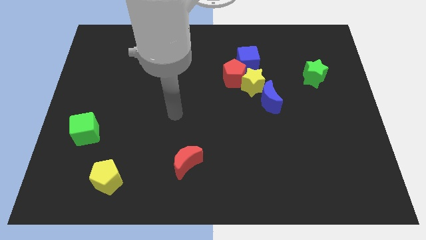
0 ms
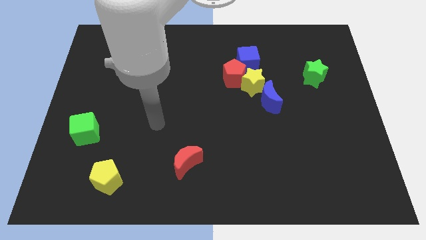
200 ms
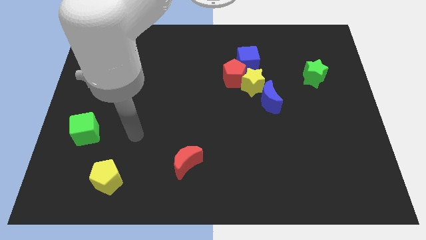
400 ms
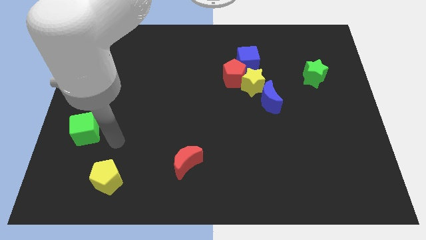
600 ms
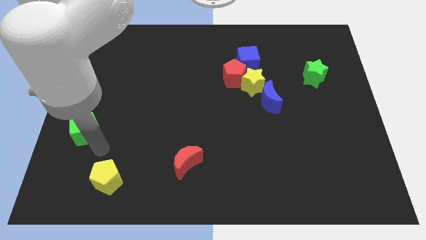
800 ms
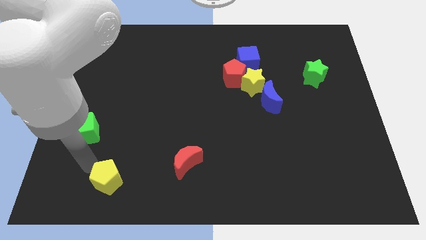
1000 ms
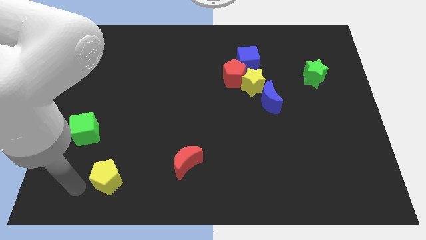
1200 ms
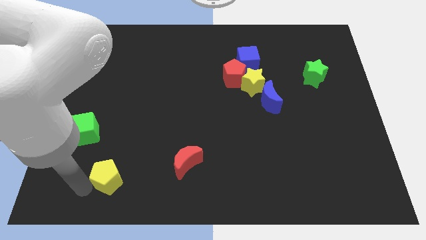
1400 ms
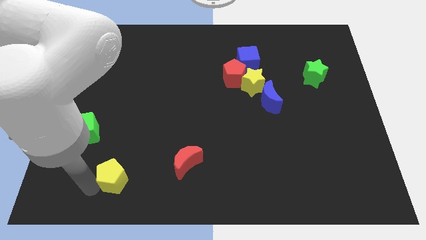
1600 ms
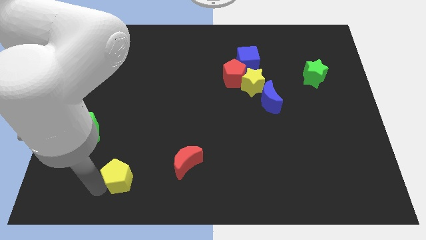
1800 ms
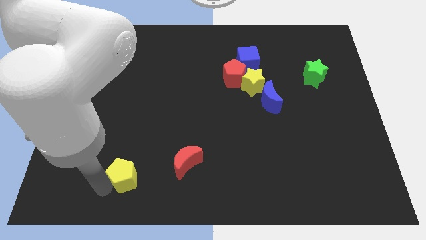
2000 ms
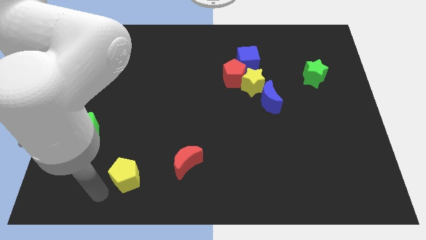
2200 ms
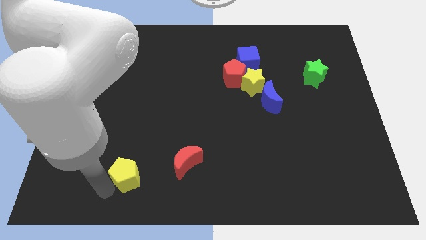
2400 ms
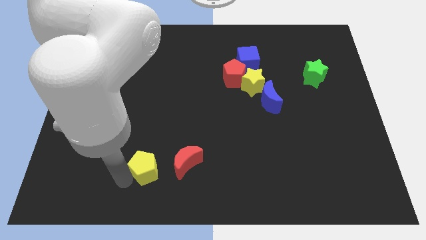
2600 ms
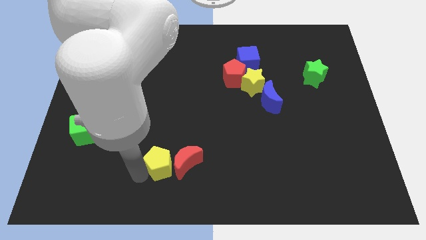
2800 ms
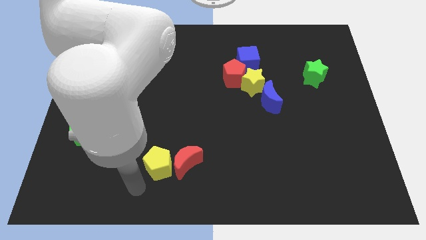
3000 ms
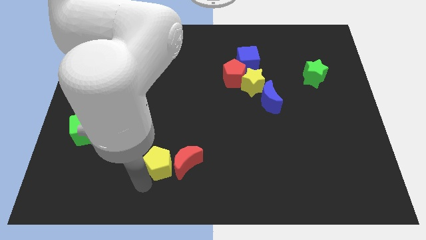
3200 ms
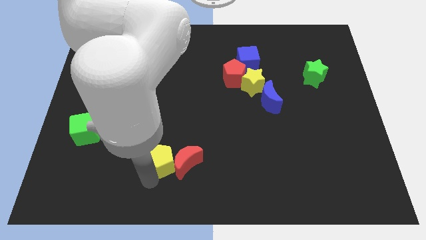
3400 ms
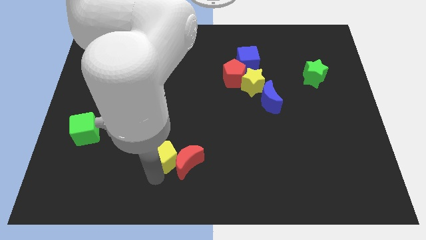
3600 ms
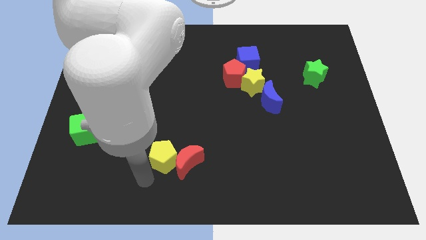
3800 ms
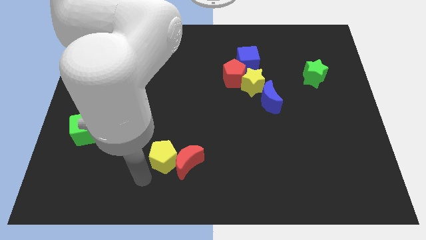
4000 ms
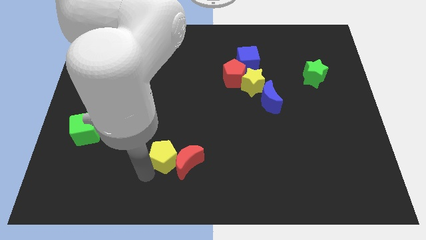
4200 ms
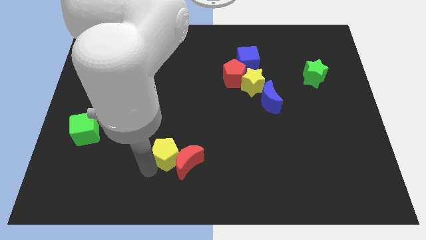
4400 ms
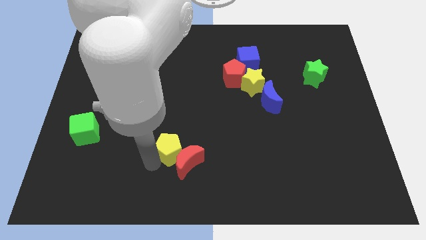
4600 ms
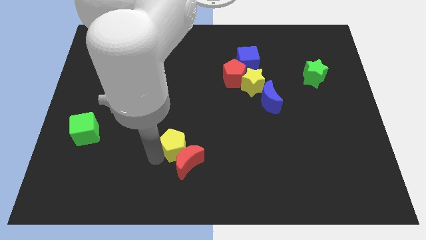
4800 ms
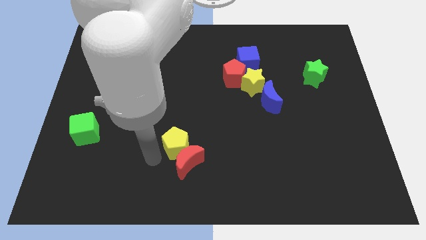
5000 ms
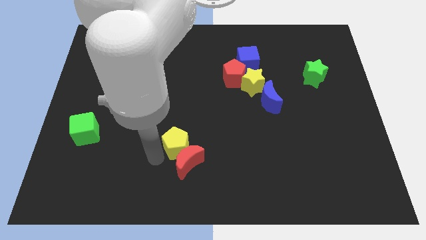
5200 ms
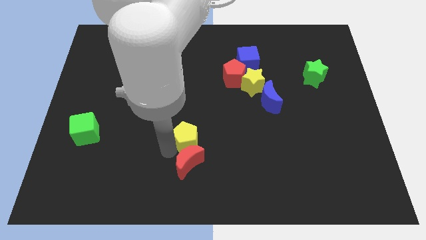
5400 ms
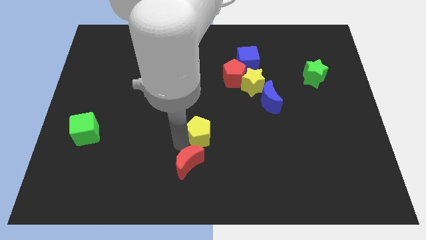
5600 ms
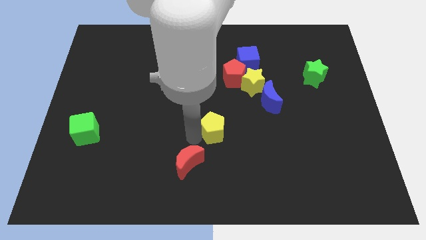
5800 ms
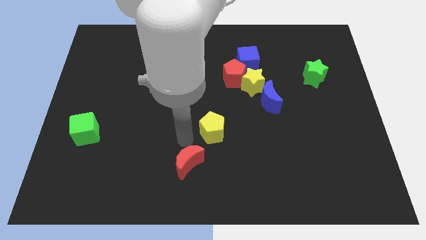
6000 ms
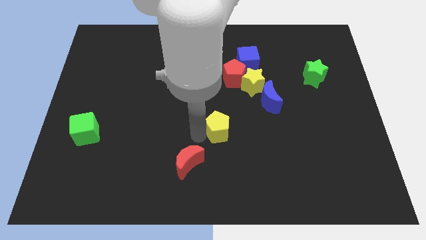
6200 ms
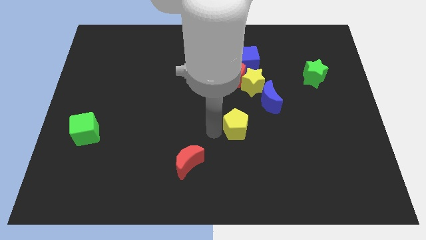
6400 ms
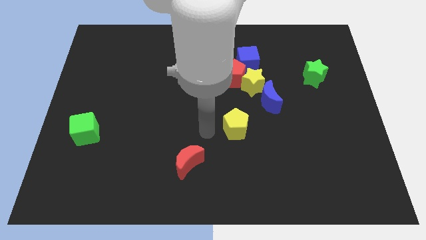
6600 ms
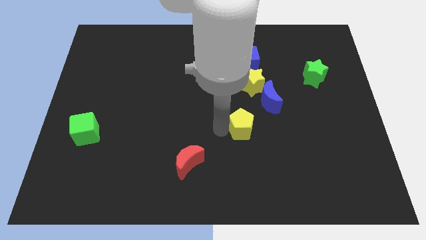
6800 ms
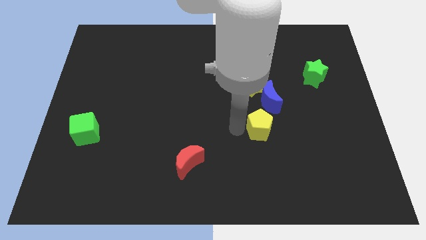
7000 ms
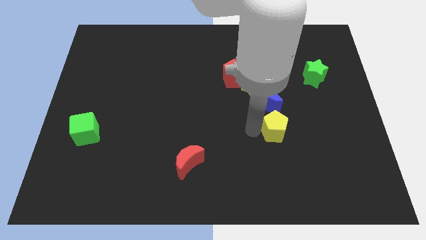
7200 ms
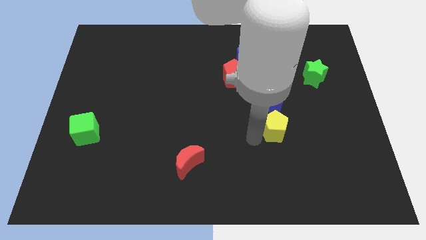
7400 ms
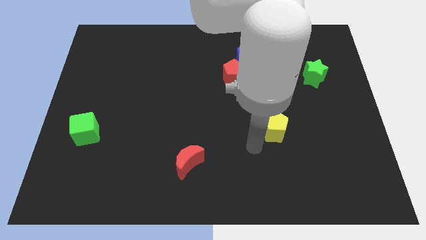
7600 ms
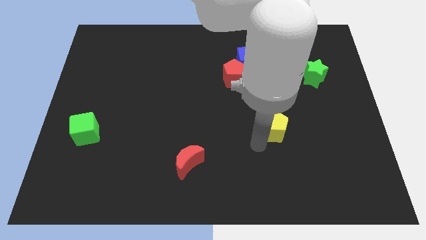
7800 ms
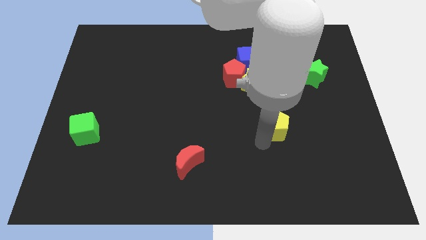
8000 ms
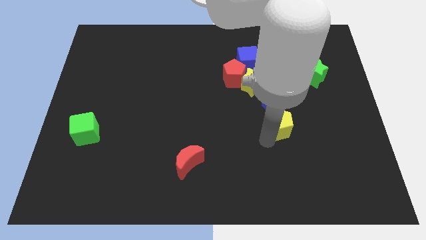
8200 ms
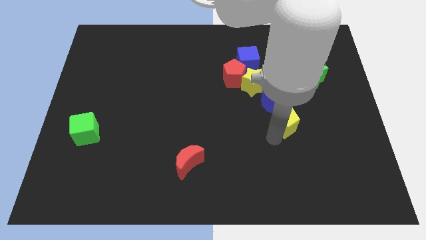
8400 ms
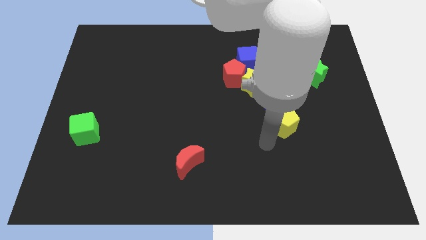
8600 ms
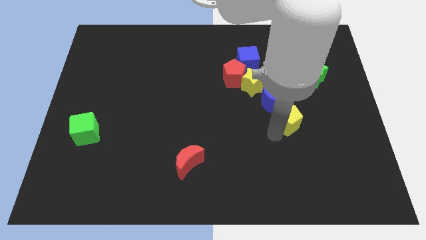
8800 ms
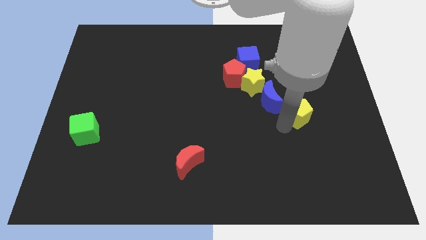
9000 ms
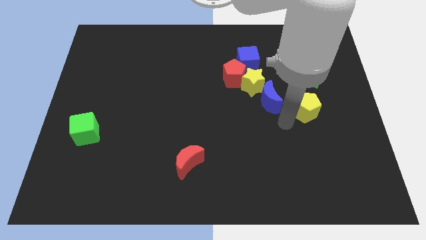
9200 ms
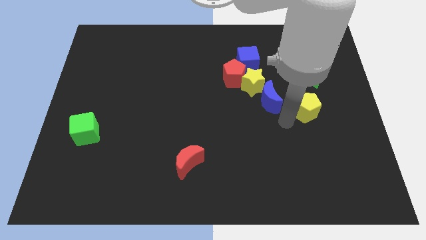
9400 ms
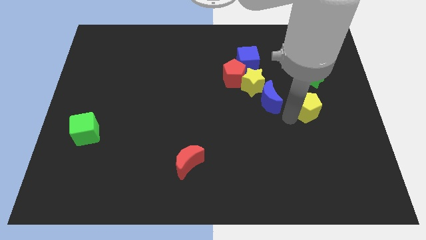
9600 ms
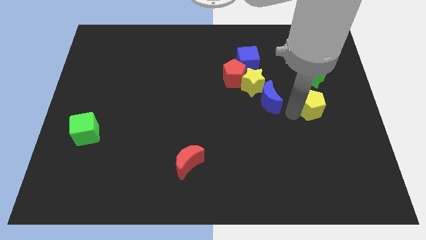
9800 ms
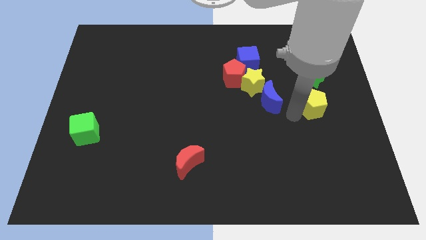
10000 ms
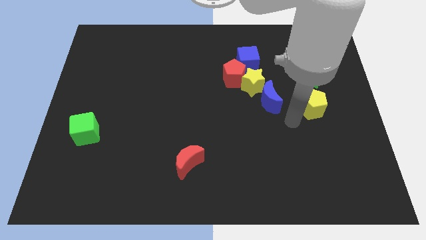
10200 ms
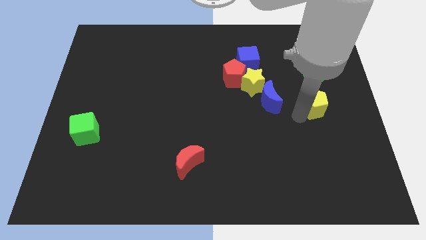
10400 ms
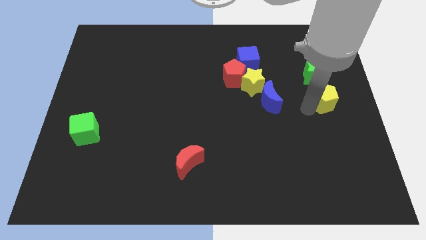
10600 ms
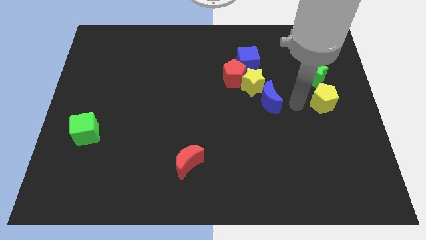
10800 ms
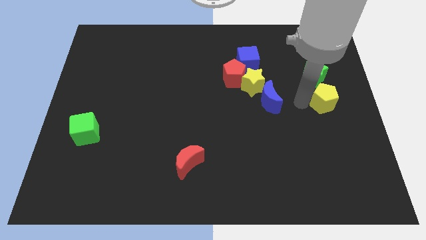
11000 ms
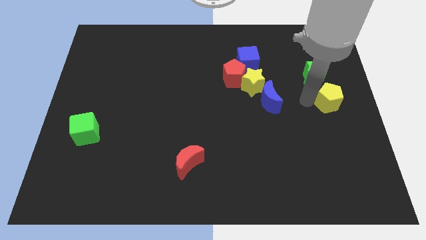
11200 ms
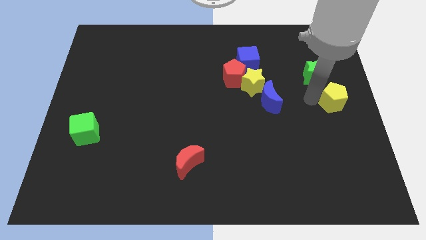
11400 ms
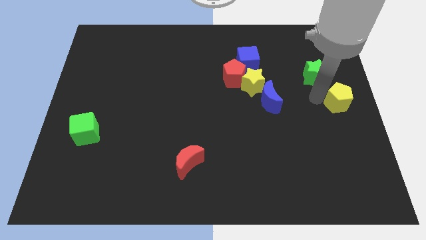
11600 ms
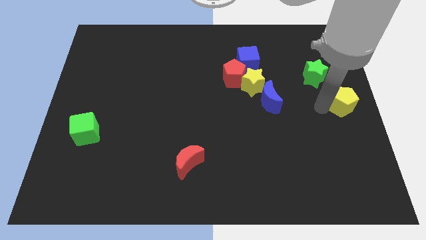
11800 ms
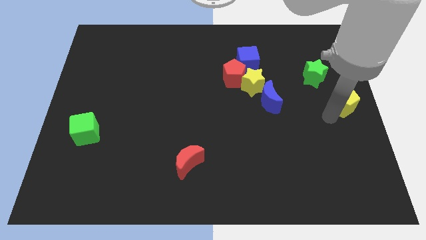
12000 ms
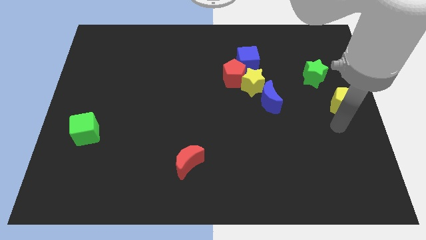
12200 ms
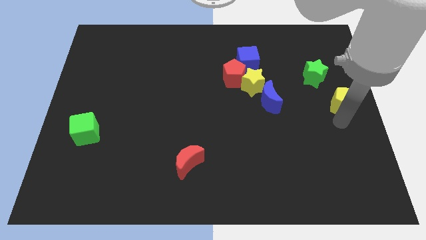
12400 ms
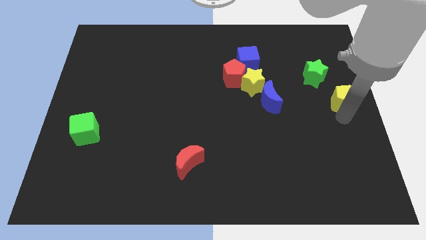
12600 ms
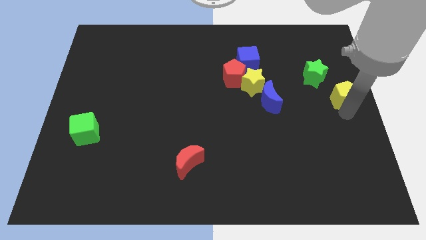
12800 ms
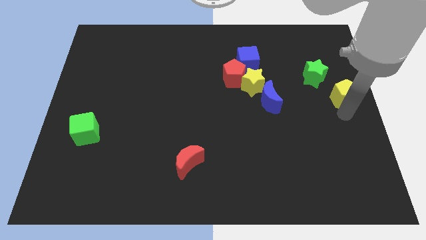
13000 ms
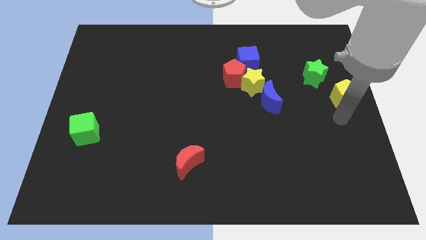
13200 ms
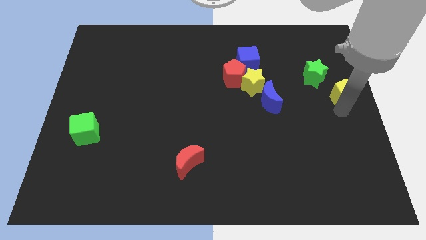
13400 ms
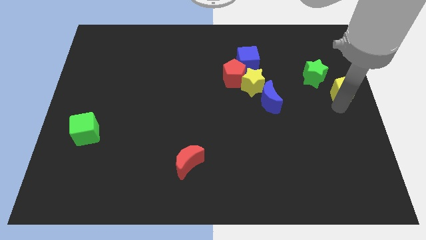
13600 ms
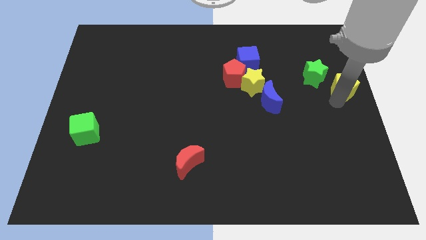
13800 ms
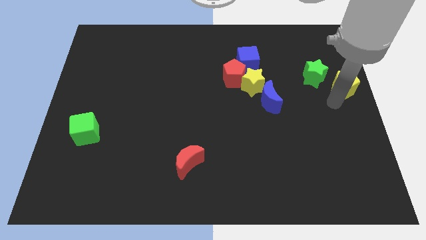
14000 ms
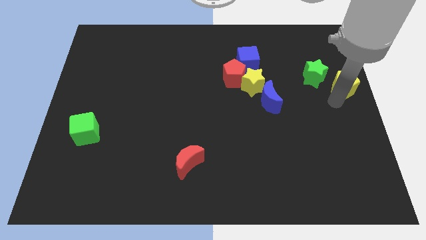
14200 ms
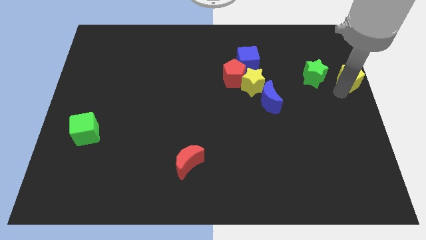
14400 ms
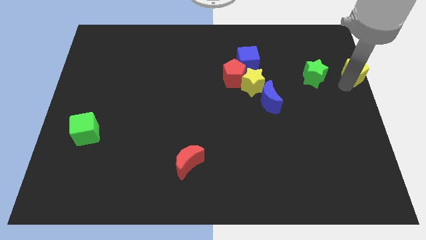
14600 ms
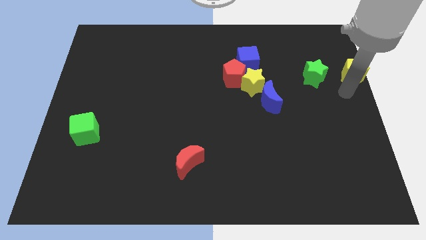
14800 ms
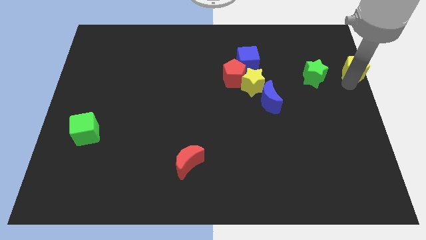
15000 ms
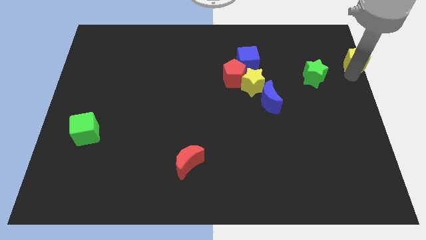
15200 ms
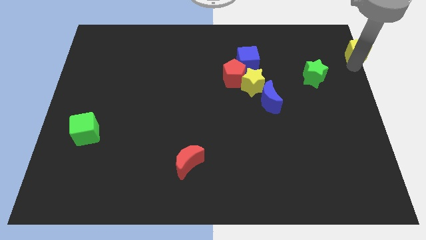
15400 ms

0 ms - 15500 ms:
put the yellow pentagon to the upper right corner

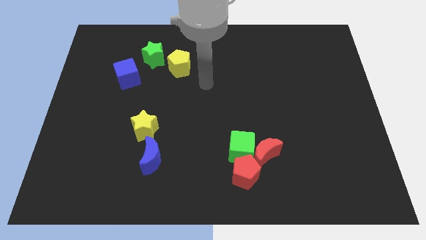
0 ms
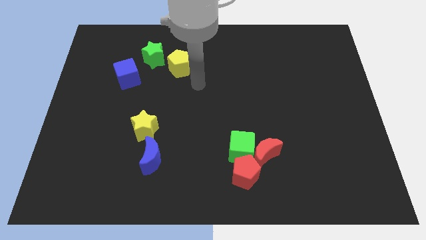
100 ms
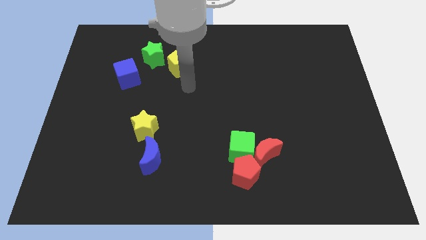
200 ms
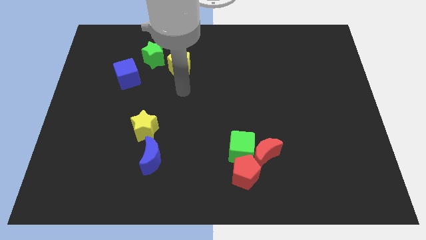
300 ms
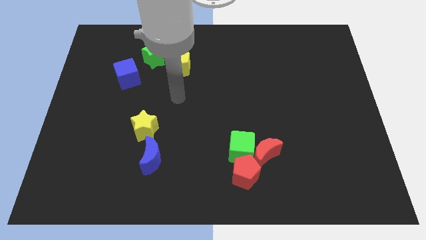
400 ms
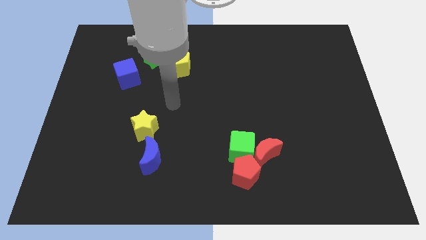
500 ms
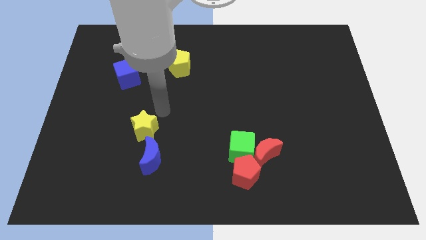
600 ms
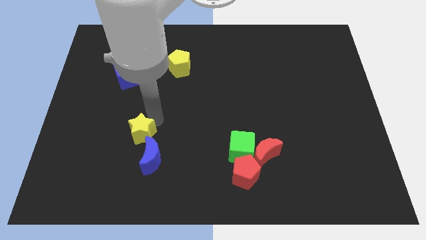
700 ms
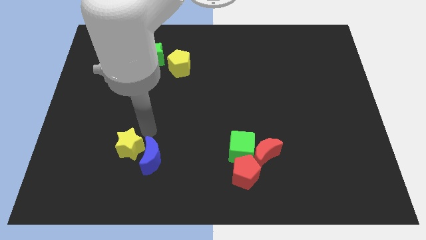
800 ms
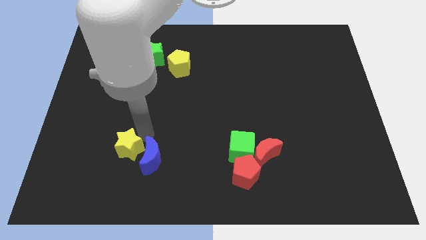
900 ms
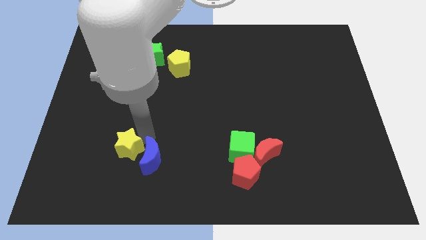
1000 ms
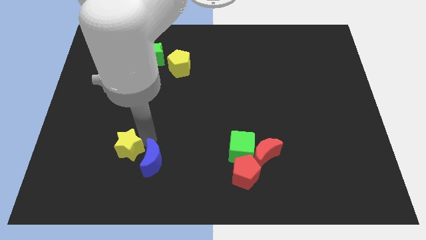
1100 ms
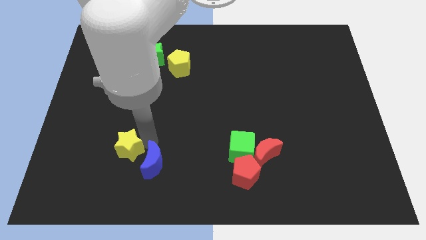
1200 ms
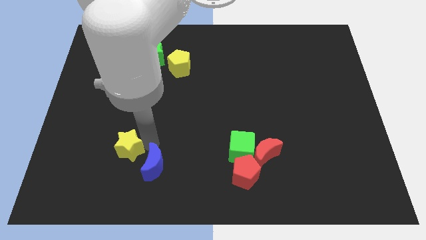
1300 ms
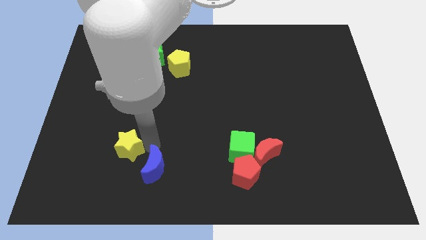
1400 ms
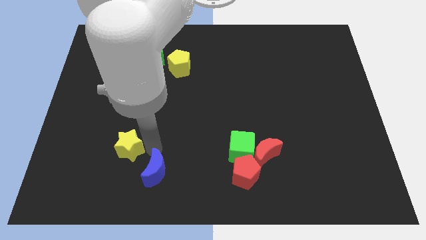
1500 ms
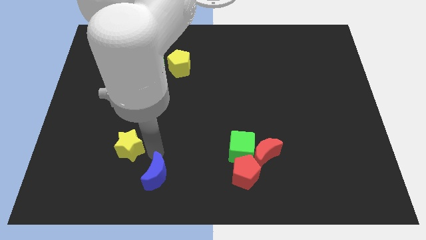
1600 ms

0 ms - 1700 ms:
slide the blue moon to the bottom side
